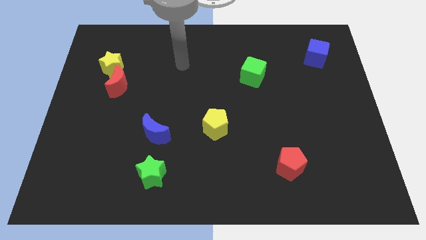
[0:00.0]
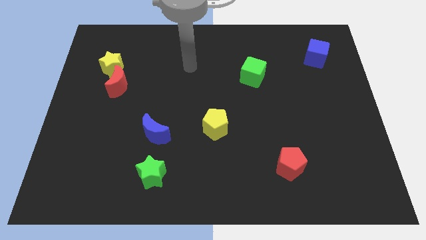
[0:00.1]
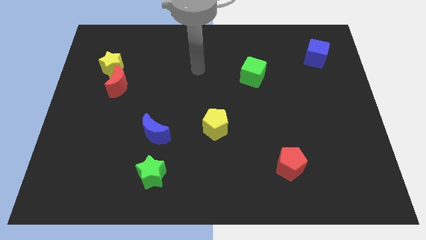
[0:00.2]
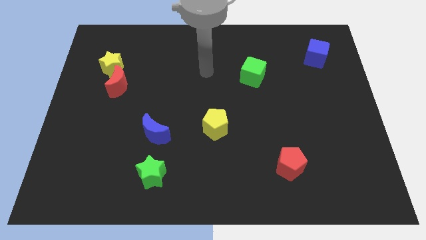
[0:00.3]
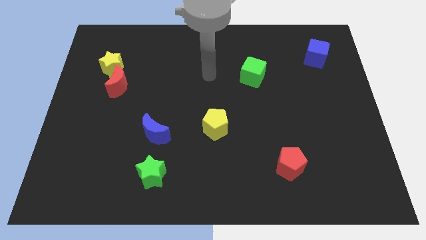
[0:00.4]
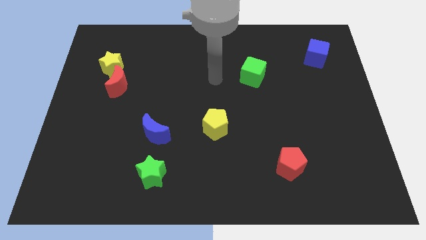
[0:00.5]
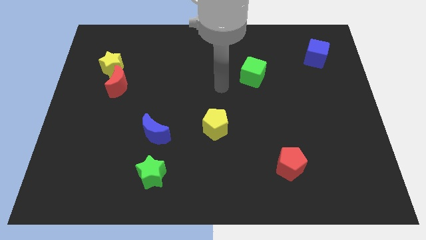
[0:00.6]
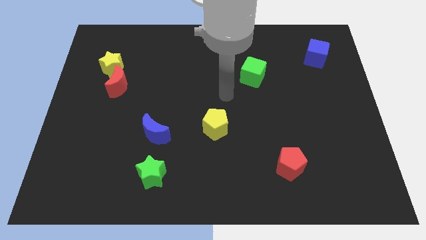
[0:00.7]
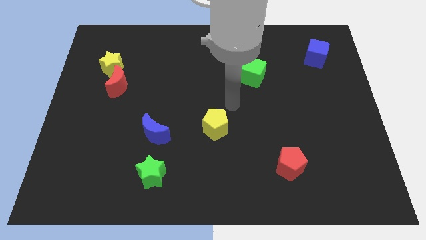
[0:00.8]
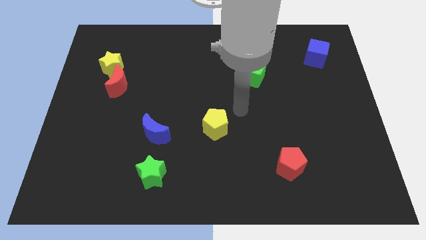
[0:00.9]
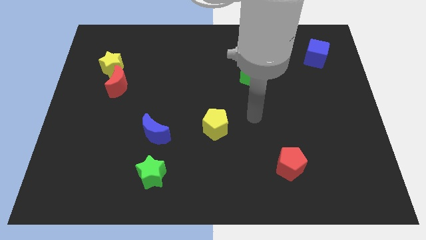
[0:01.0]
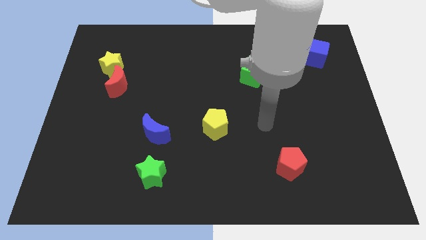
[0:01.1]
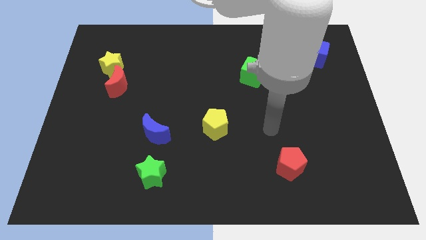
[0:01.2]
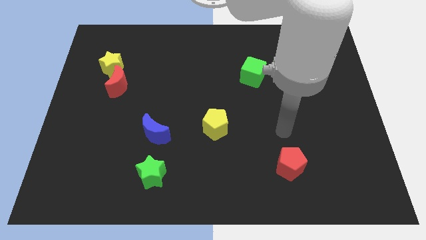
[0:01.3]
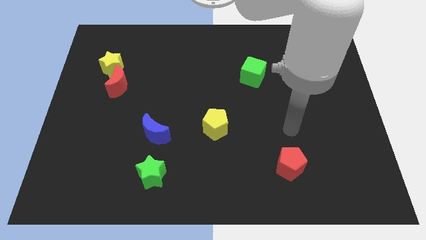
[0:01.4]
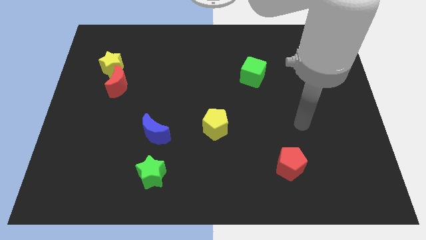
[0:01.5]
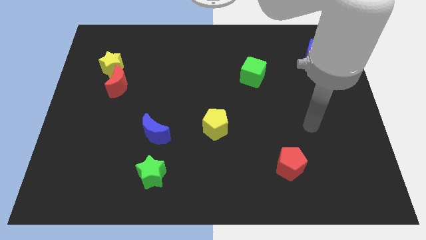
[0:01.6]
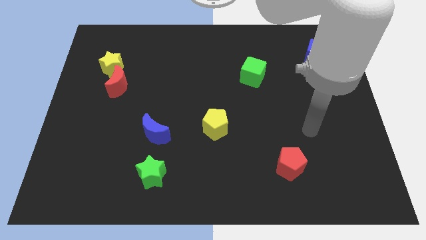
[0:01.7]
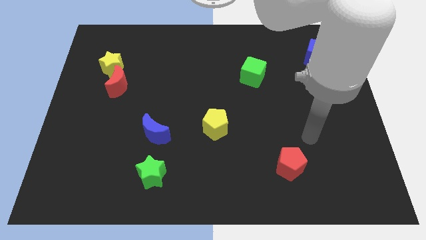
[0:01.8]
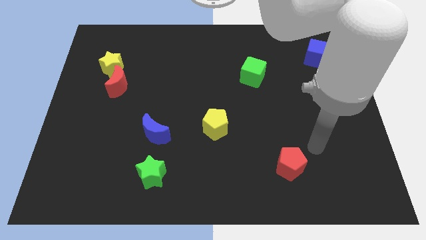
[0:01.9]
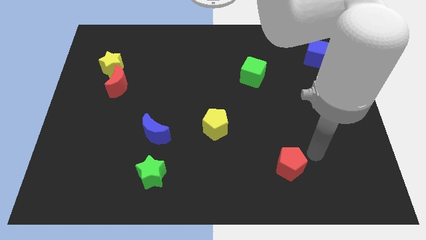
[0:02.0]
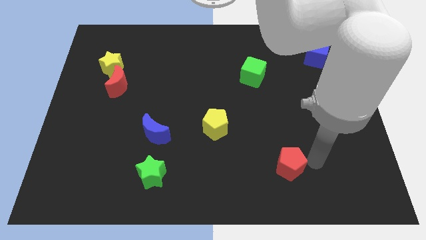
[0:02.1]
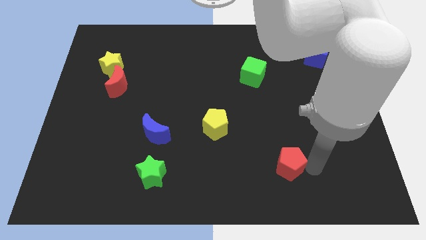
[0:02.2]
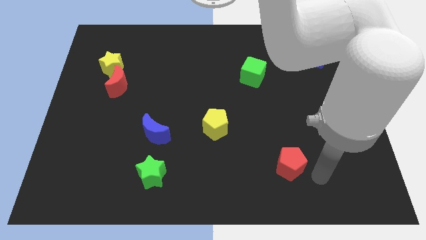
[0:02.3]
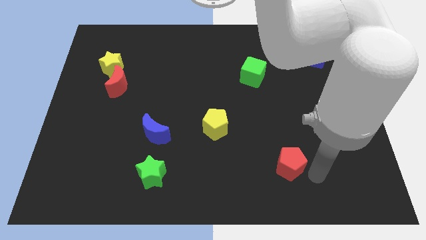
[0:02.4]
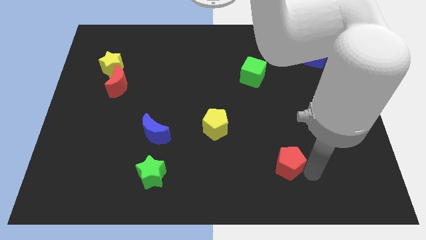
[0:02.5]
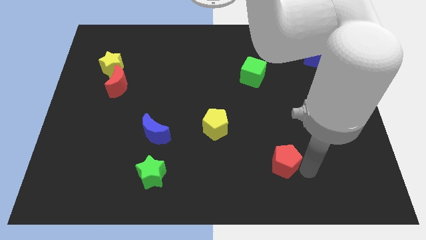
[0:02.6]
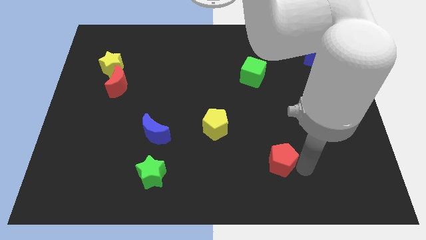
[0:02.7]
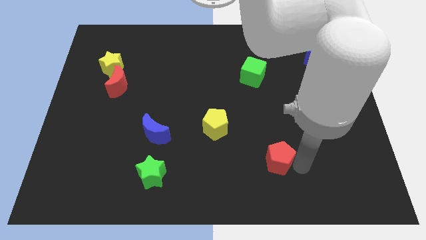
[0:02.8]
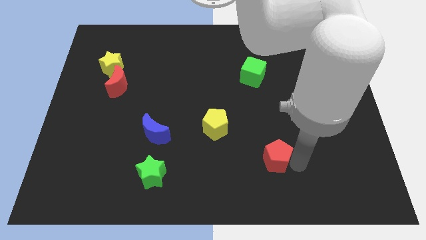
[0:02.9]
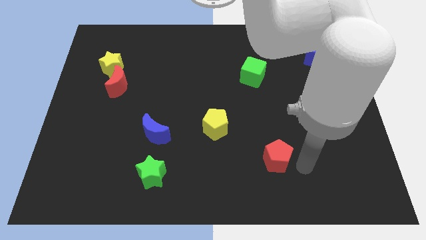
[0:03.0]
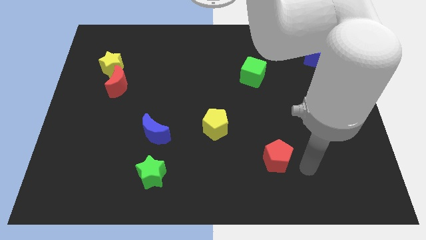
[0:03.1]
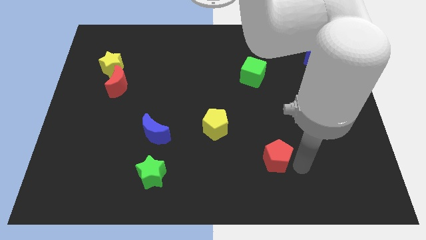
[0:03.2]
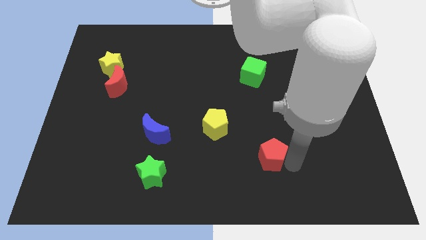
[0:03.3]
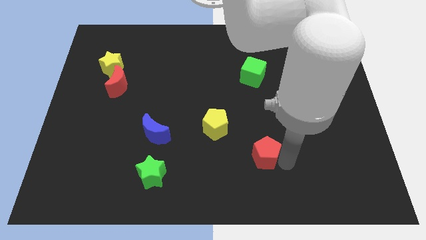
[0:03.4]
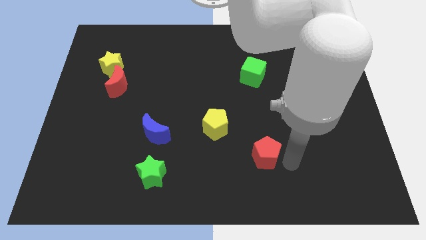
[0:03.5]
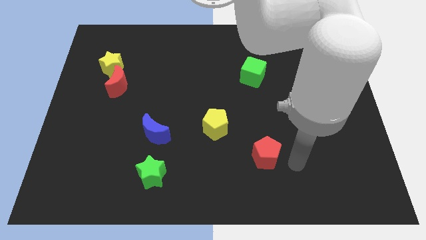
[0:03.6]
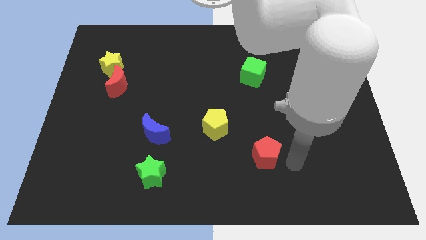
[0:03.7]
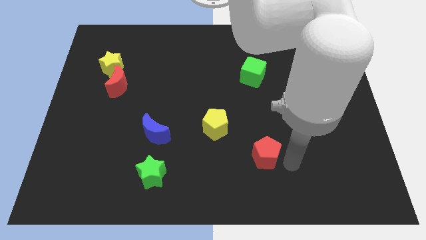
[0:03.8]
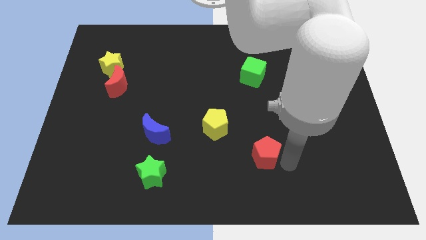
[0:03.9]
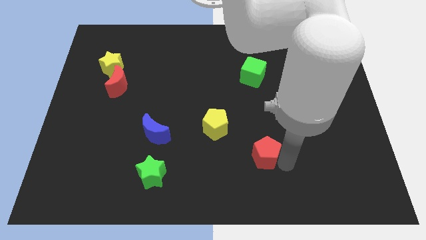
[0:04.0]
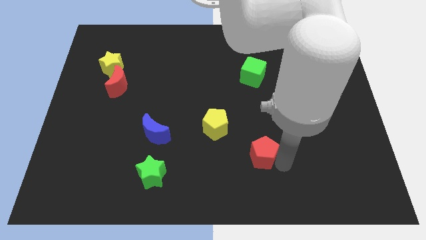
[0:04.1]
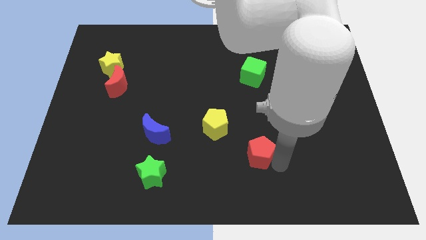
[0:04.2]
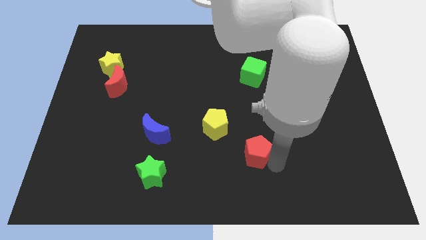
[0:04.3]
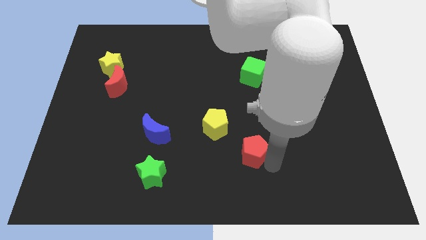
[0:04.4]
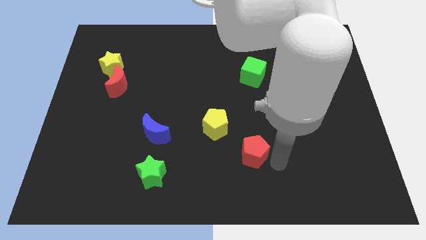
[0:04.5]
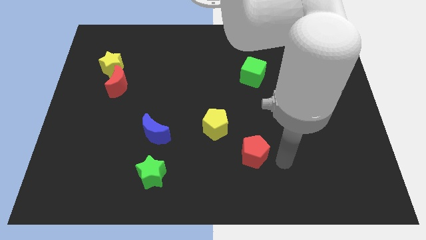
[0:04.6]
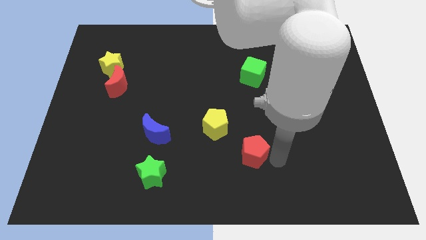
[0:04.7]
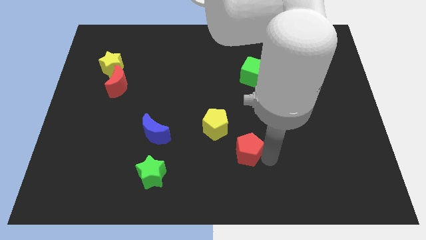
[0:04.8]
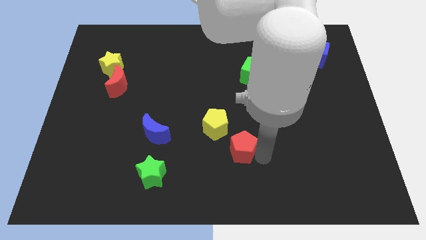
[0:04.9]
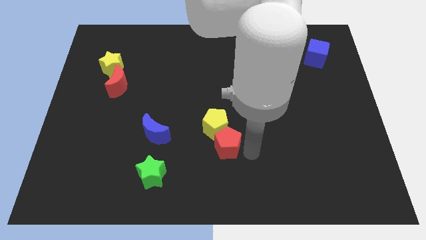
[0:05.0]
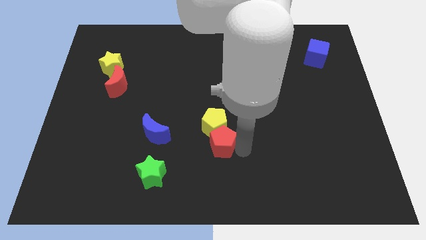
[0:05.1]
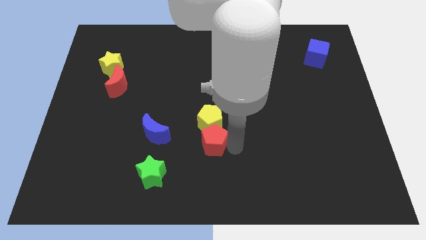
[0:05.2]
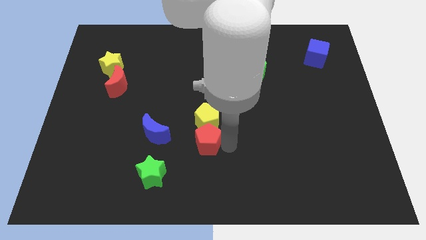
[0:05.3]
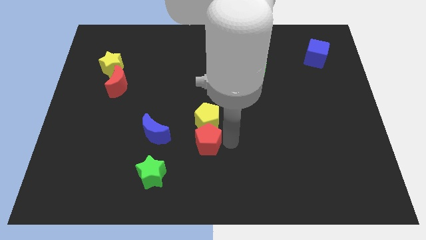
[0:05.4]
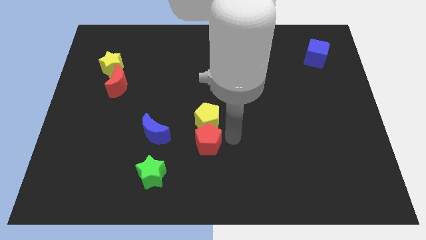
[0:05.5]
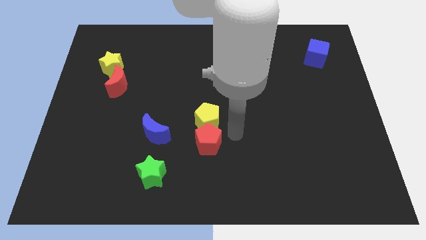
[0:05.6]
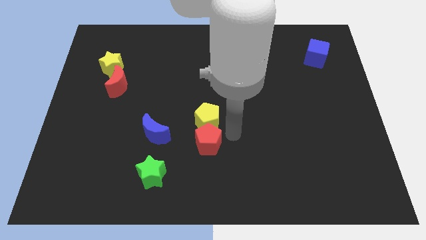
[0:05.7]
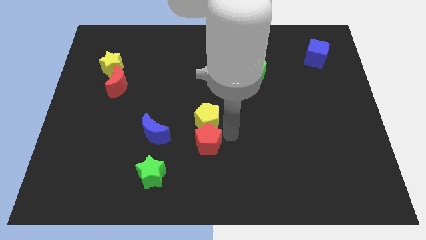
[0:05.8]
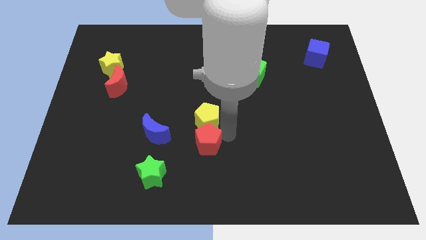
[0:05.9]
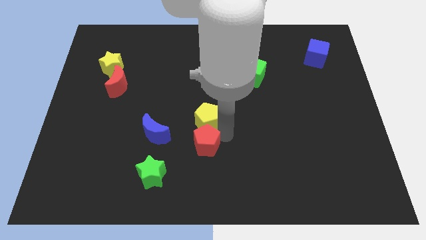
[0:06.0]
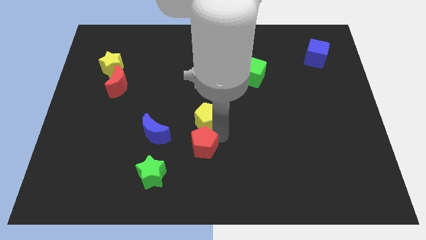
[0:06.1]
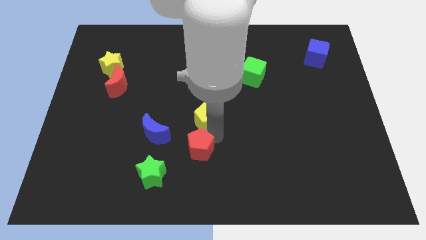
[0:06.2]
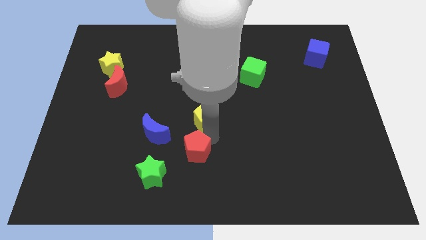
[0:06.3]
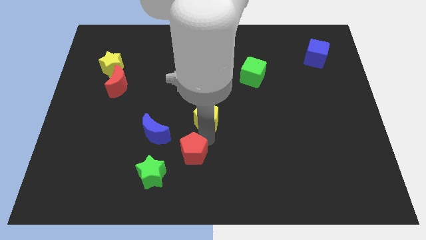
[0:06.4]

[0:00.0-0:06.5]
push the red pentagon left

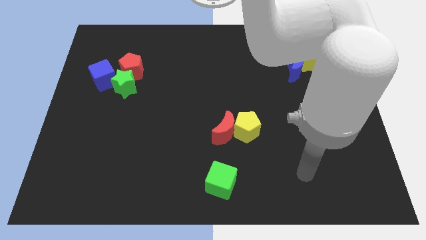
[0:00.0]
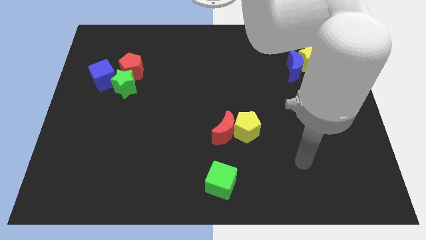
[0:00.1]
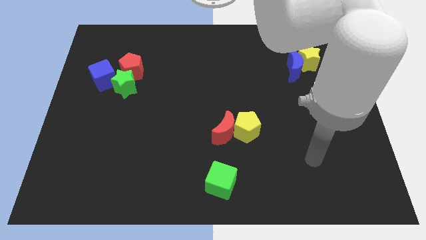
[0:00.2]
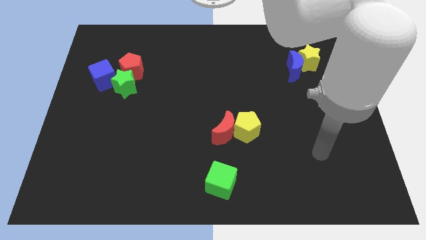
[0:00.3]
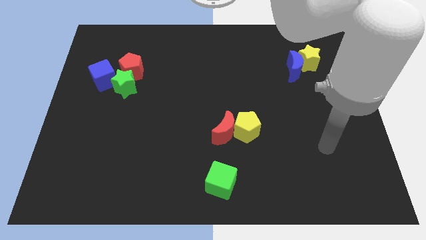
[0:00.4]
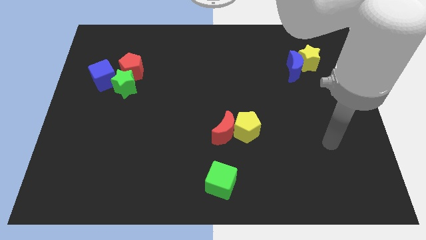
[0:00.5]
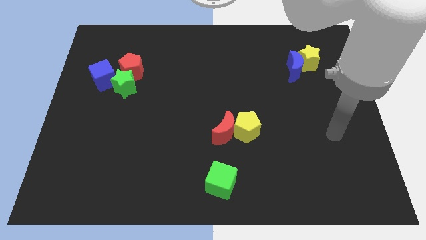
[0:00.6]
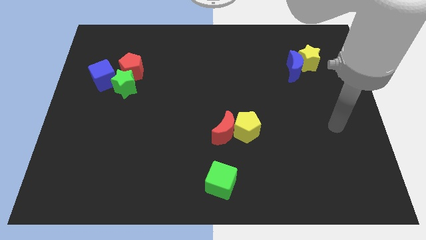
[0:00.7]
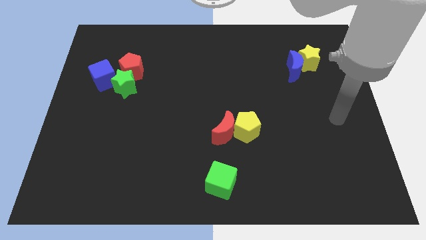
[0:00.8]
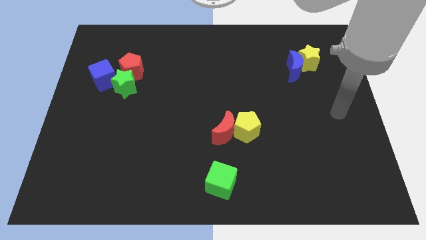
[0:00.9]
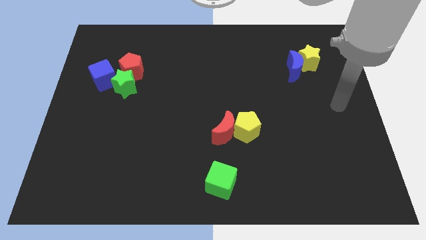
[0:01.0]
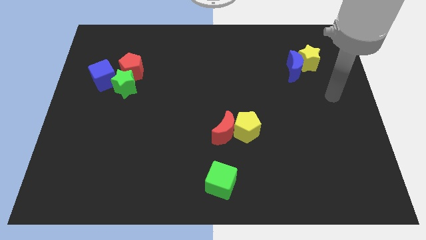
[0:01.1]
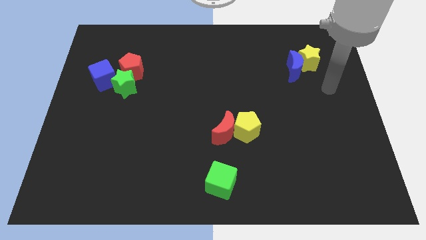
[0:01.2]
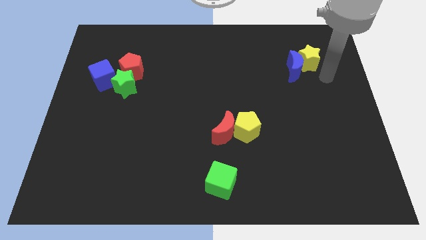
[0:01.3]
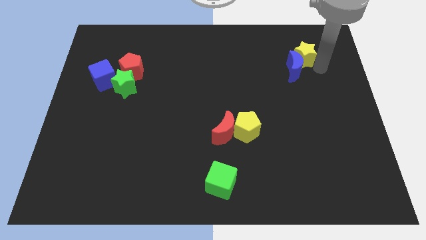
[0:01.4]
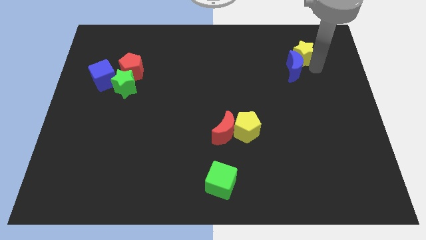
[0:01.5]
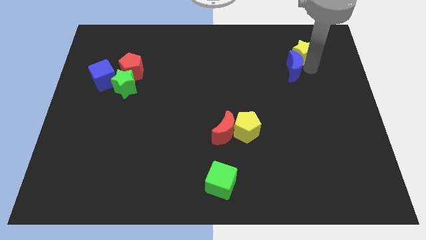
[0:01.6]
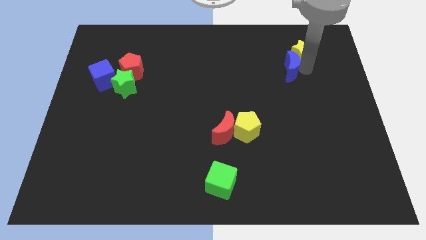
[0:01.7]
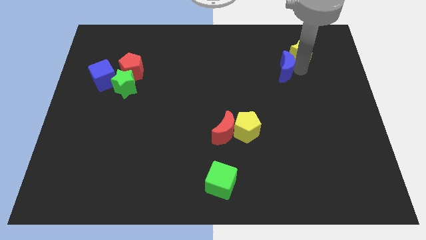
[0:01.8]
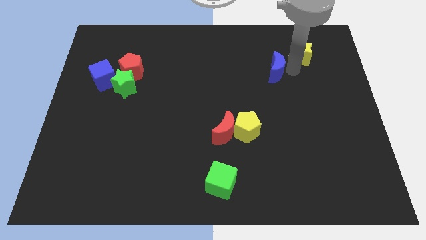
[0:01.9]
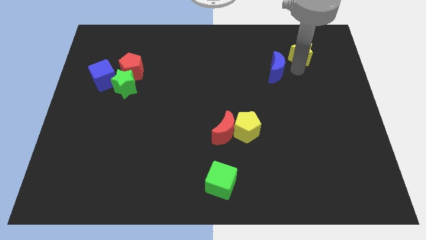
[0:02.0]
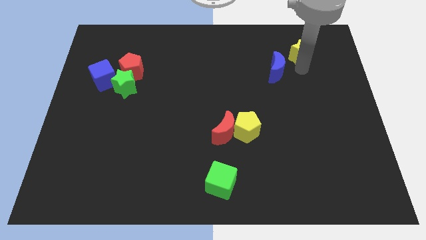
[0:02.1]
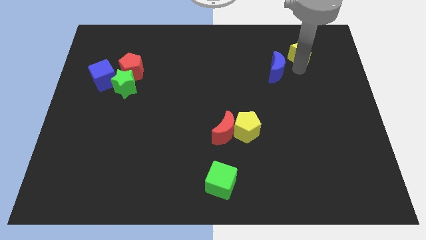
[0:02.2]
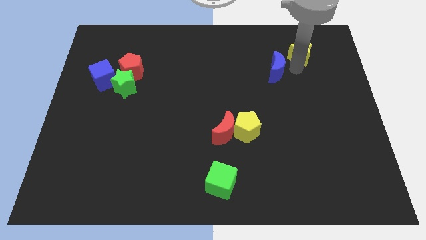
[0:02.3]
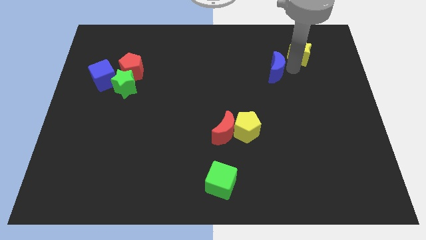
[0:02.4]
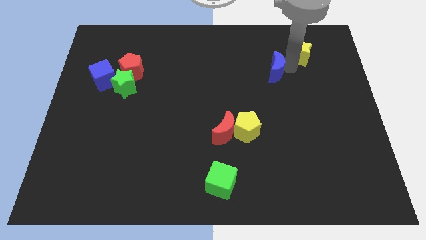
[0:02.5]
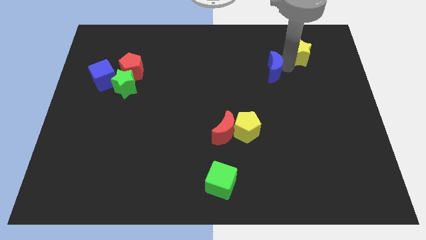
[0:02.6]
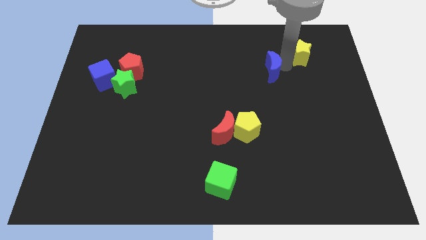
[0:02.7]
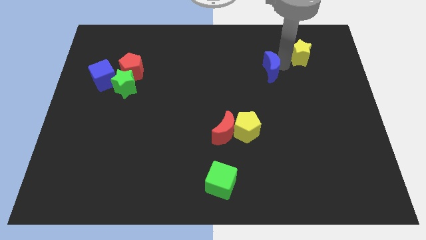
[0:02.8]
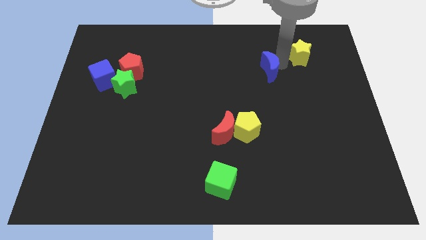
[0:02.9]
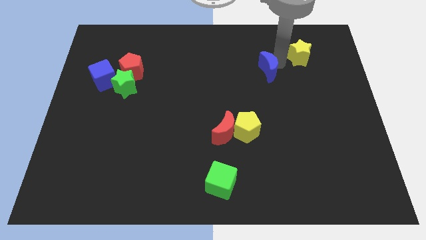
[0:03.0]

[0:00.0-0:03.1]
push the blue moon to the left a little
